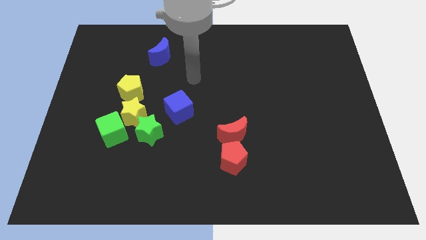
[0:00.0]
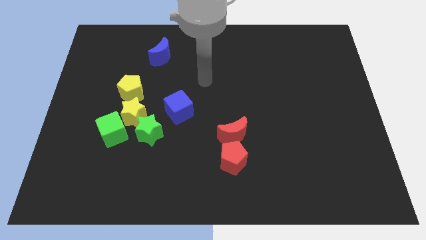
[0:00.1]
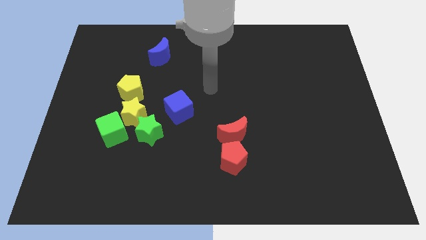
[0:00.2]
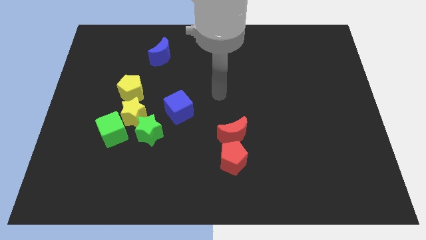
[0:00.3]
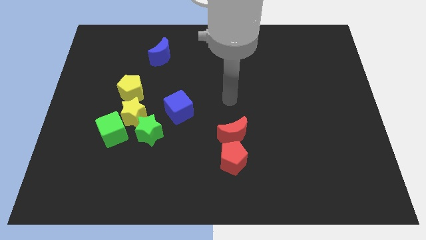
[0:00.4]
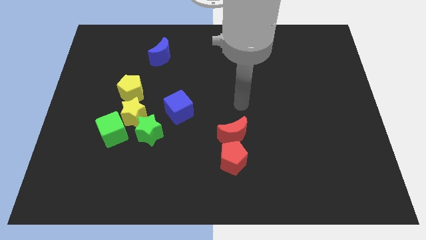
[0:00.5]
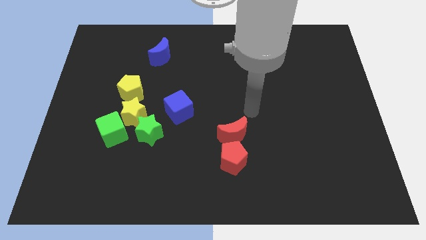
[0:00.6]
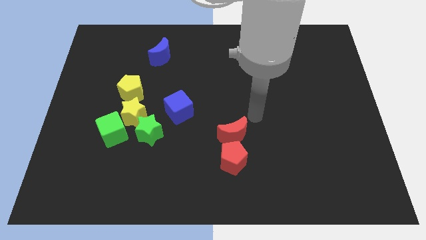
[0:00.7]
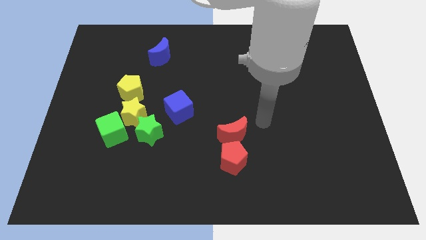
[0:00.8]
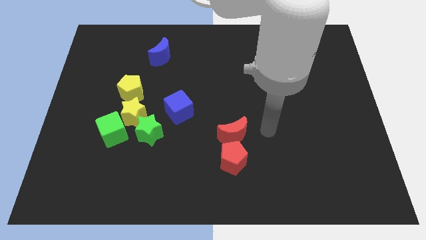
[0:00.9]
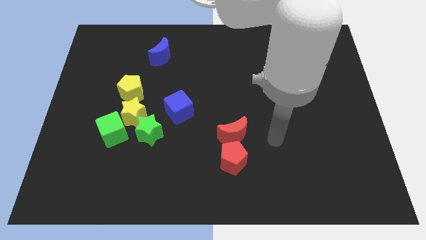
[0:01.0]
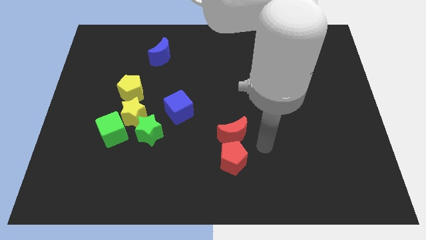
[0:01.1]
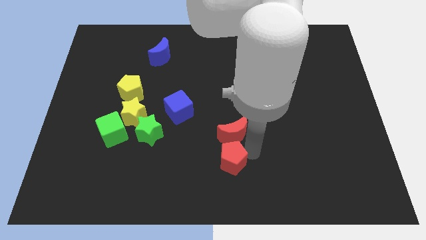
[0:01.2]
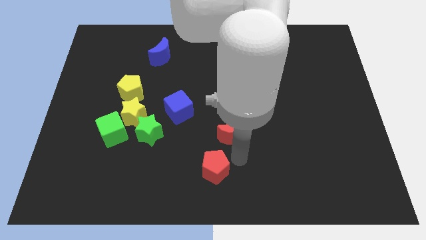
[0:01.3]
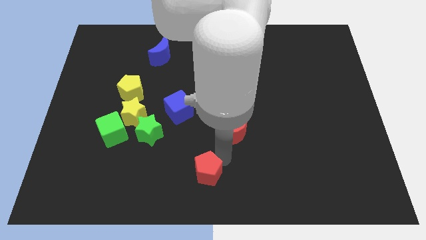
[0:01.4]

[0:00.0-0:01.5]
separate the red moon from the red pentagon

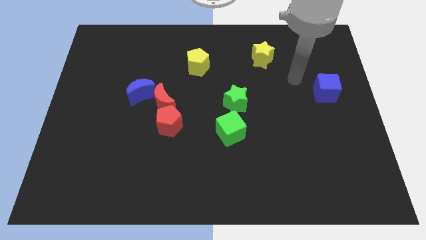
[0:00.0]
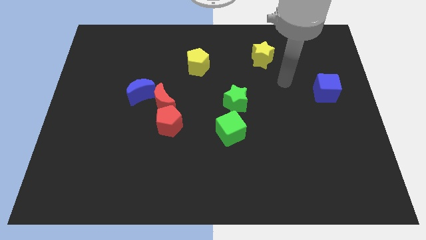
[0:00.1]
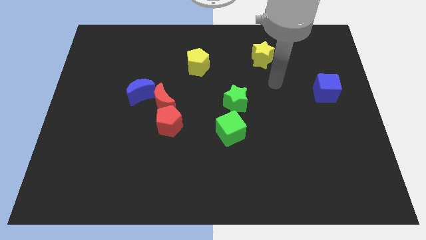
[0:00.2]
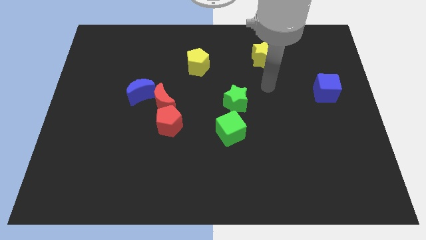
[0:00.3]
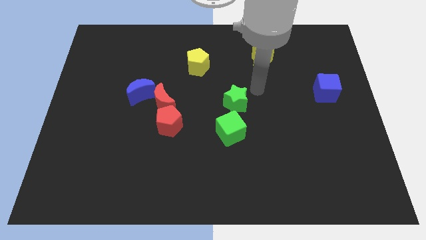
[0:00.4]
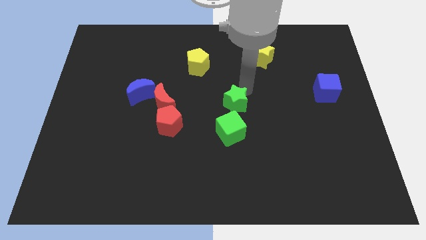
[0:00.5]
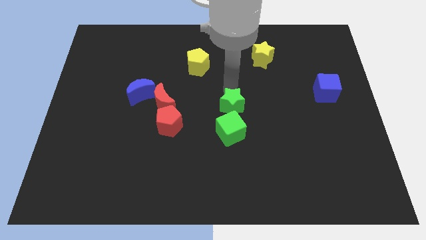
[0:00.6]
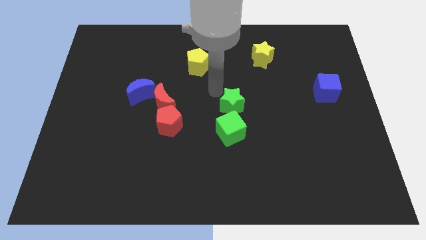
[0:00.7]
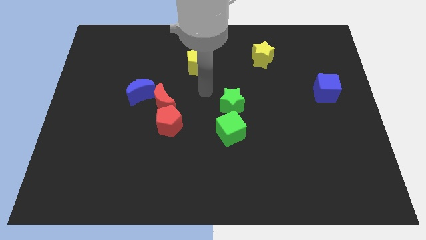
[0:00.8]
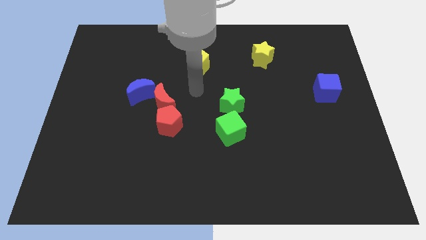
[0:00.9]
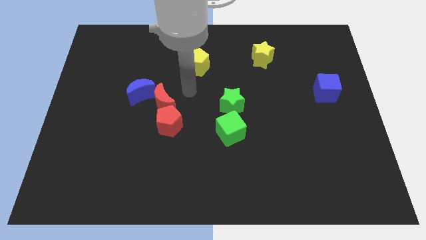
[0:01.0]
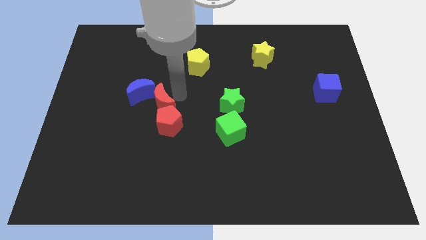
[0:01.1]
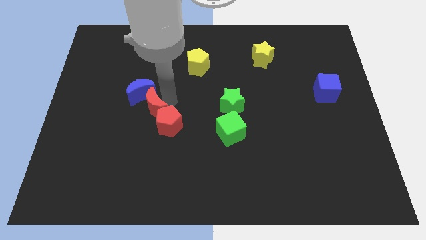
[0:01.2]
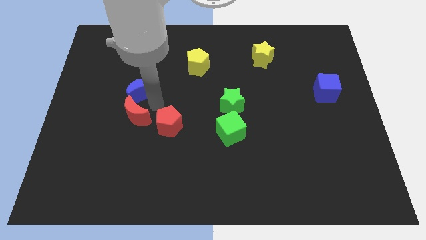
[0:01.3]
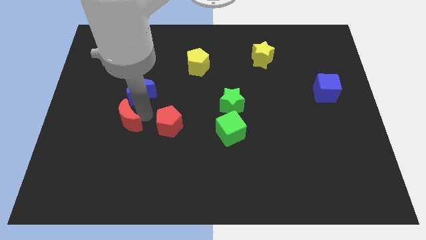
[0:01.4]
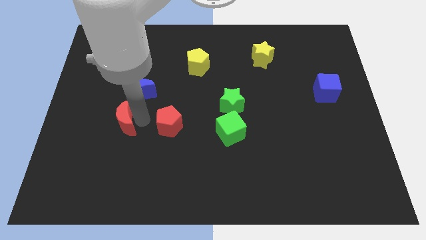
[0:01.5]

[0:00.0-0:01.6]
move the red pentagon away from the red moon

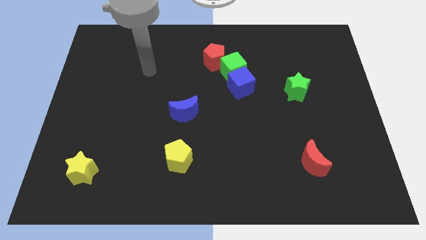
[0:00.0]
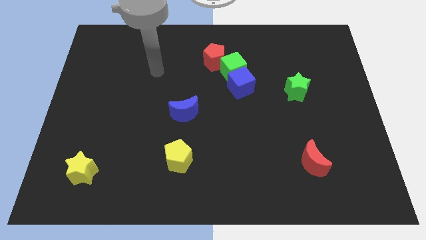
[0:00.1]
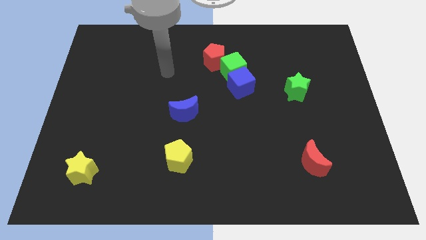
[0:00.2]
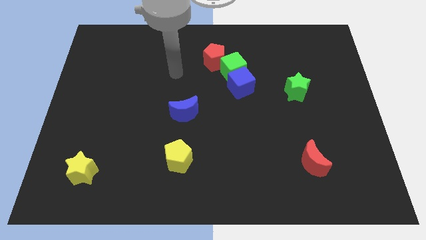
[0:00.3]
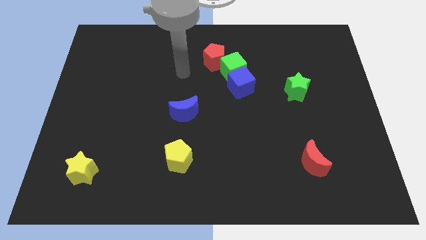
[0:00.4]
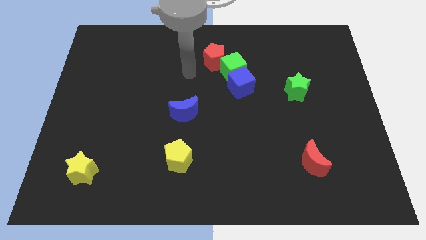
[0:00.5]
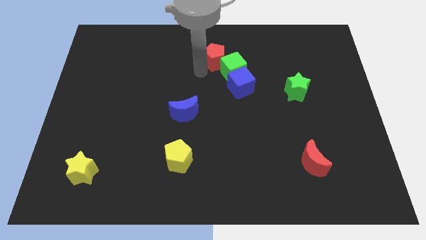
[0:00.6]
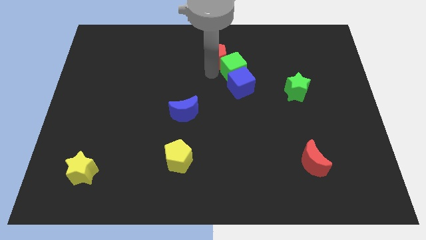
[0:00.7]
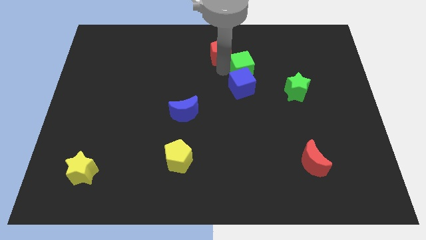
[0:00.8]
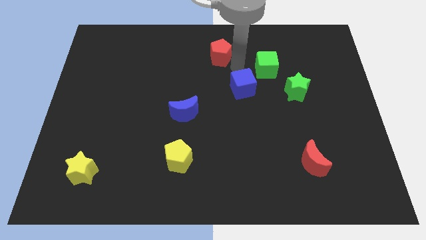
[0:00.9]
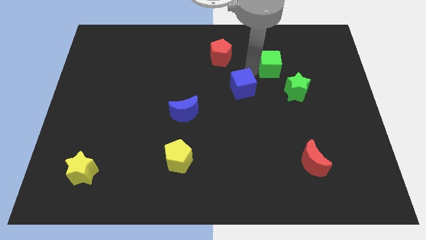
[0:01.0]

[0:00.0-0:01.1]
pull the blue cube apart from the green cube

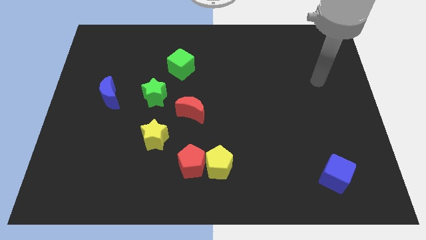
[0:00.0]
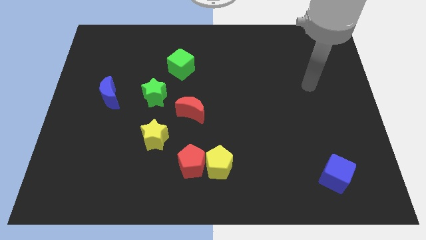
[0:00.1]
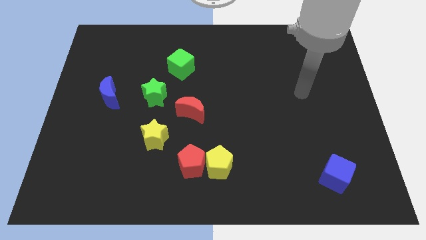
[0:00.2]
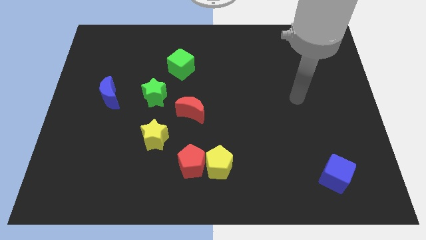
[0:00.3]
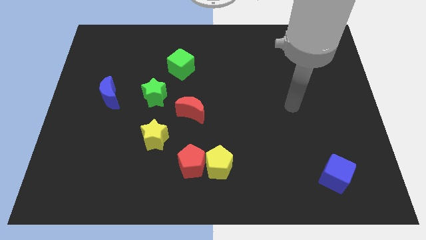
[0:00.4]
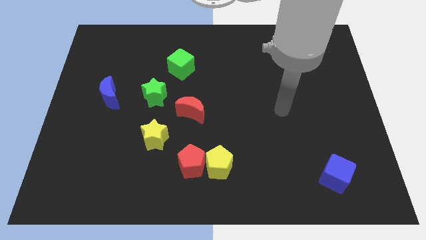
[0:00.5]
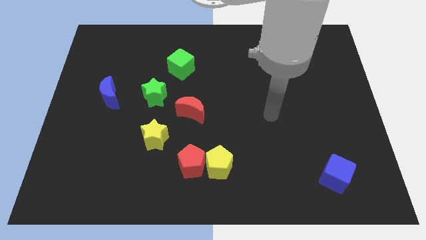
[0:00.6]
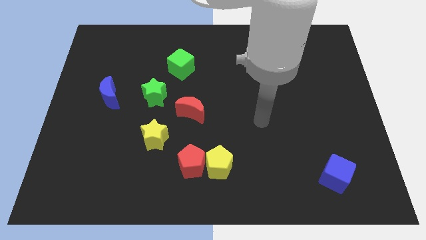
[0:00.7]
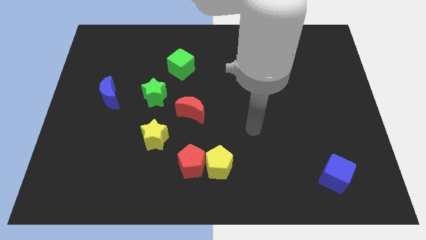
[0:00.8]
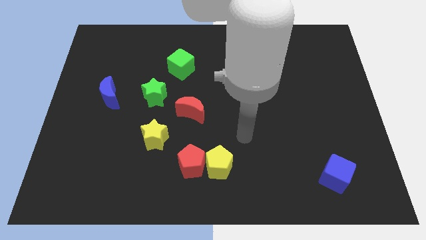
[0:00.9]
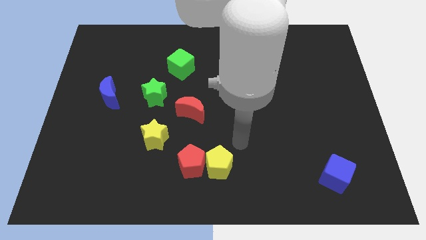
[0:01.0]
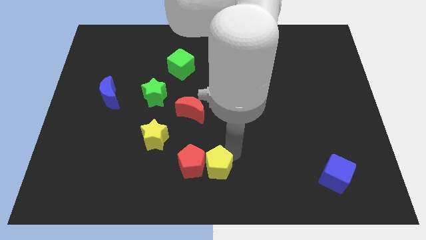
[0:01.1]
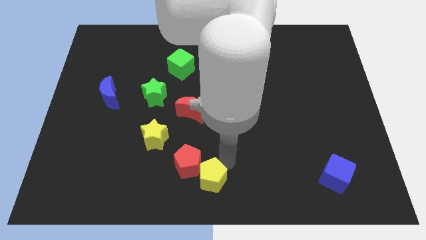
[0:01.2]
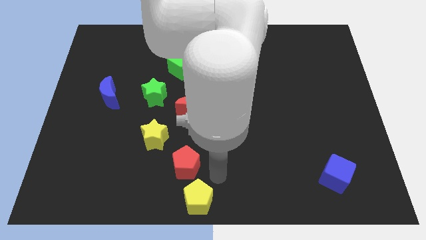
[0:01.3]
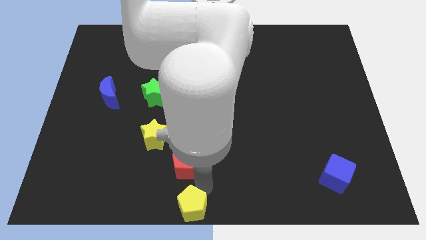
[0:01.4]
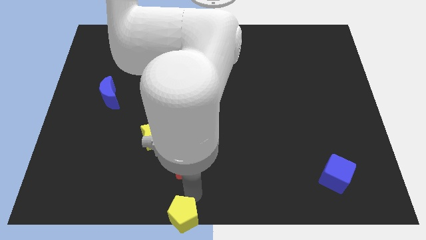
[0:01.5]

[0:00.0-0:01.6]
move the red pentagon away from the yellow pentagon

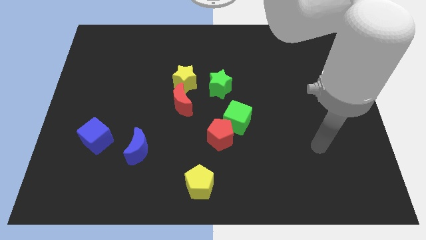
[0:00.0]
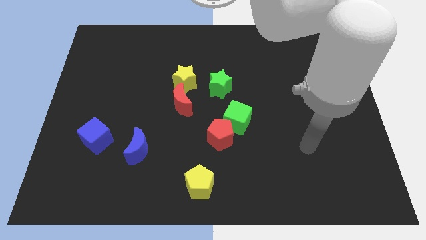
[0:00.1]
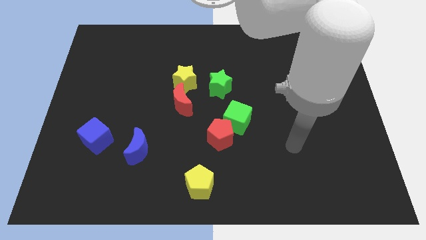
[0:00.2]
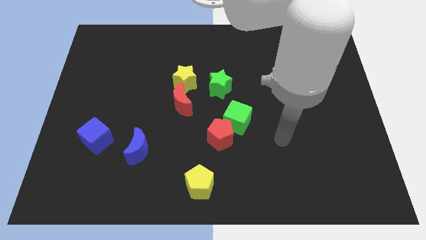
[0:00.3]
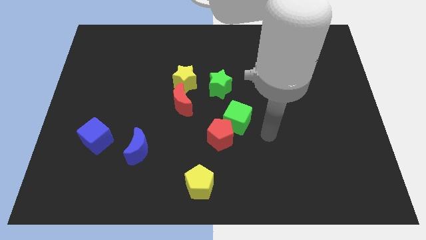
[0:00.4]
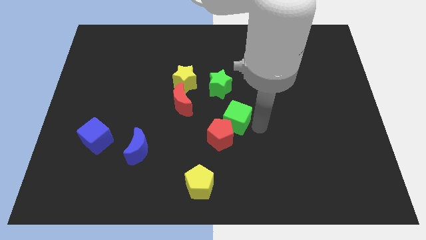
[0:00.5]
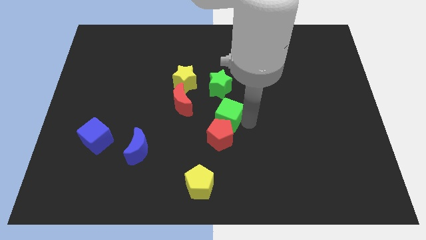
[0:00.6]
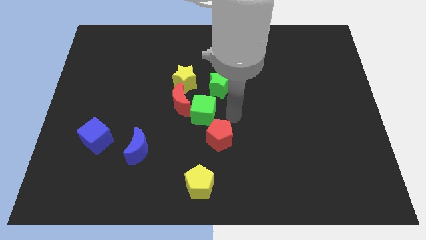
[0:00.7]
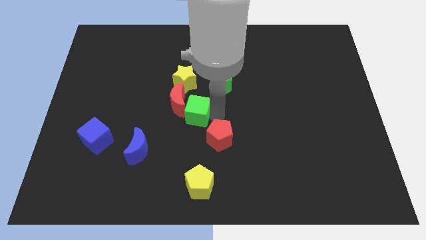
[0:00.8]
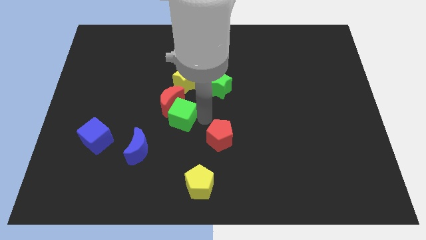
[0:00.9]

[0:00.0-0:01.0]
move the red pentagon away from the green cube

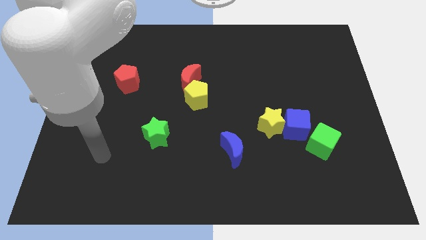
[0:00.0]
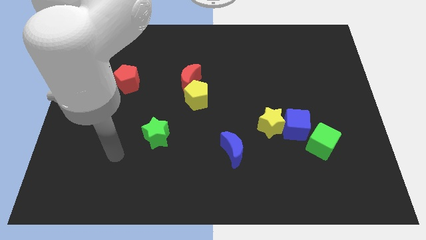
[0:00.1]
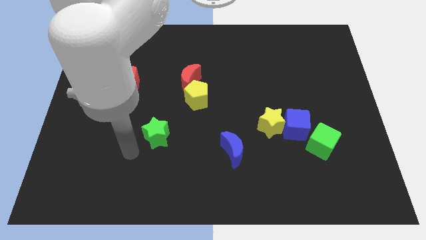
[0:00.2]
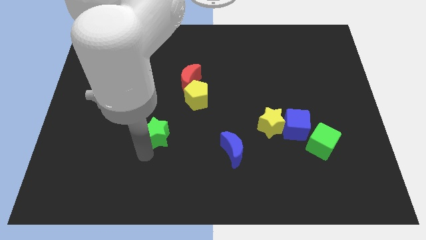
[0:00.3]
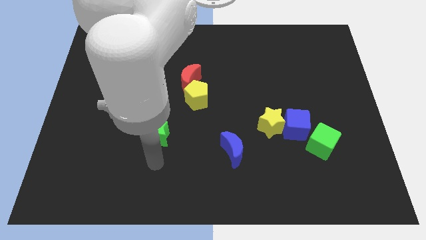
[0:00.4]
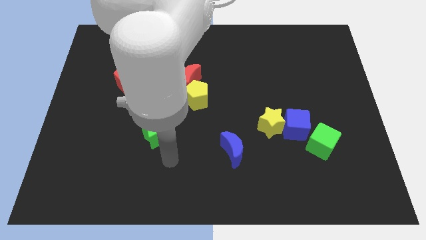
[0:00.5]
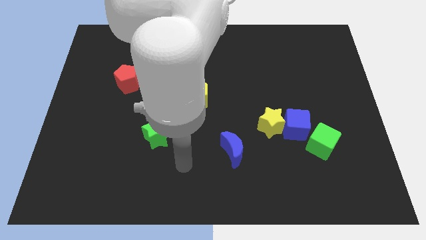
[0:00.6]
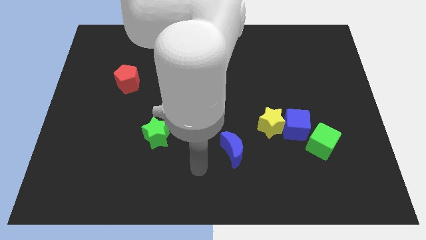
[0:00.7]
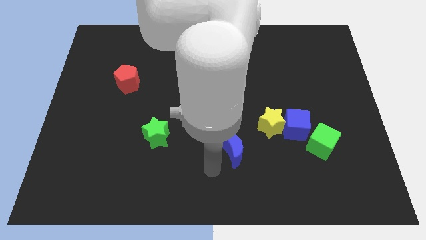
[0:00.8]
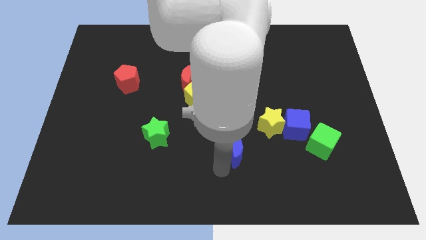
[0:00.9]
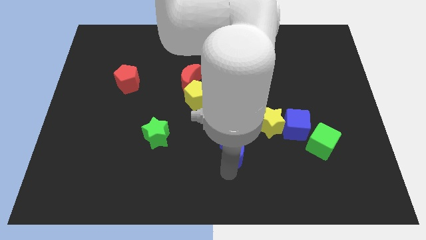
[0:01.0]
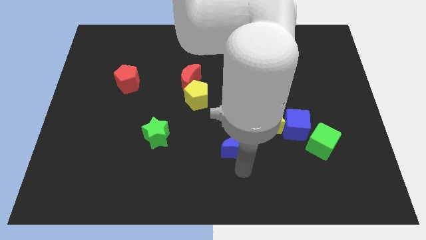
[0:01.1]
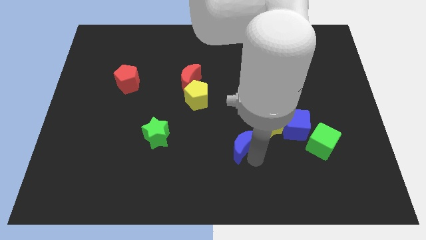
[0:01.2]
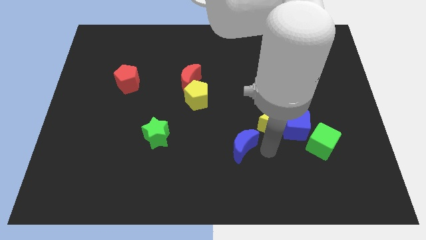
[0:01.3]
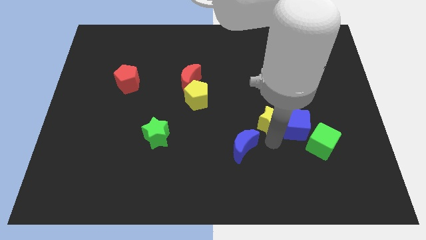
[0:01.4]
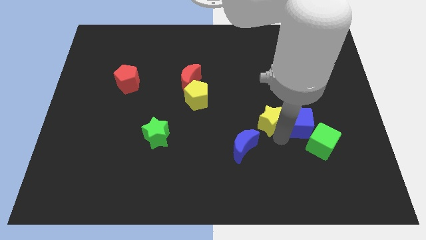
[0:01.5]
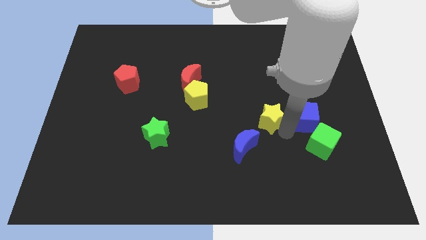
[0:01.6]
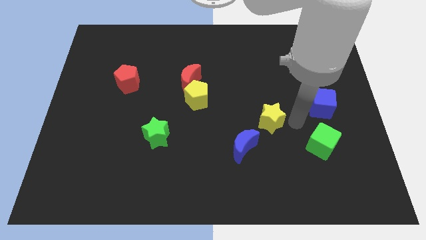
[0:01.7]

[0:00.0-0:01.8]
move the yellow star away from the blue cube

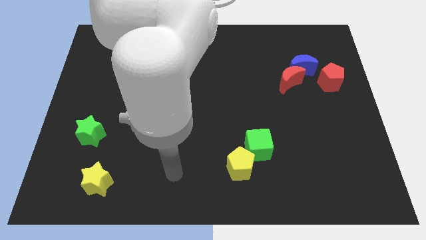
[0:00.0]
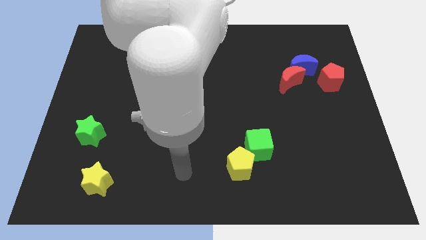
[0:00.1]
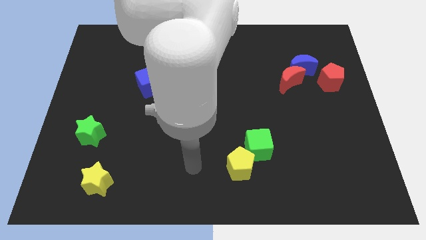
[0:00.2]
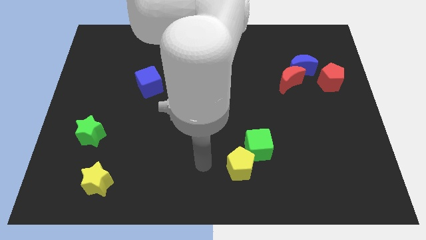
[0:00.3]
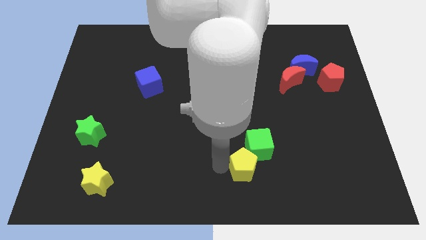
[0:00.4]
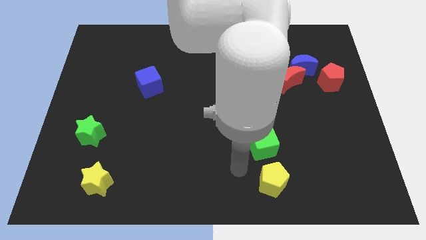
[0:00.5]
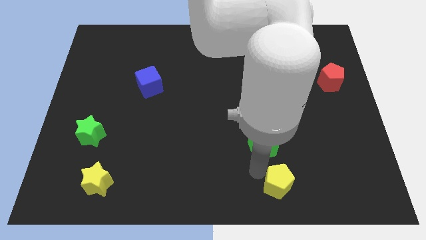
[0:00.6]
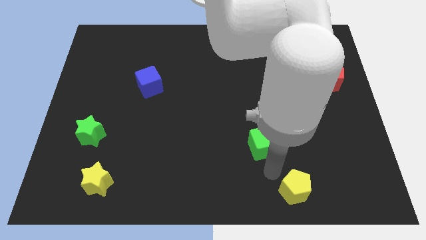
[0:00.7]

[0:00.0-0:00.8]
pull the green cube apart from the yellow pentagon
